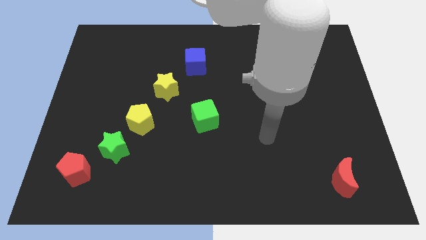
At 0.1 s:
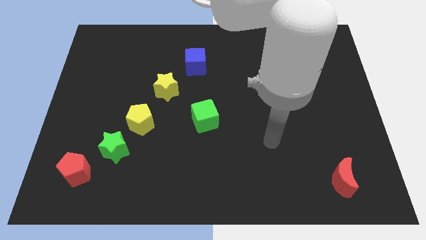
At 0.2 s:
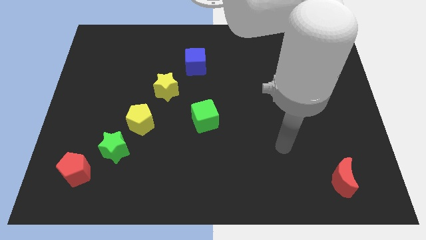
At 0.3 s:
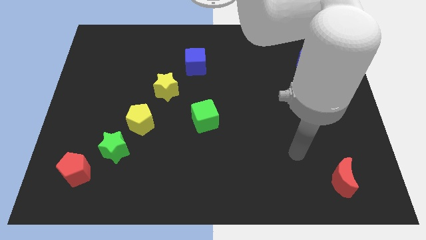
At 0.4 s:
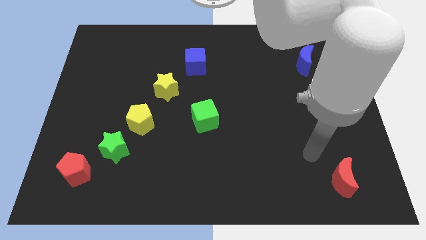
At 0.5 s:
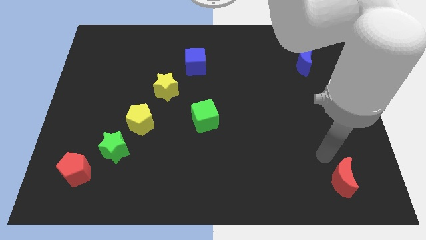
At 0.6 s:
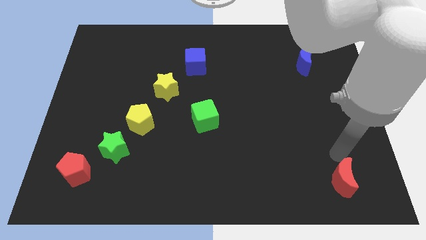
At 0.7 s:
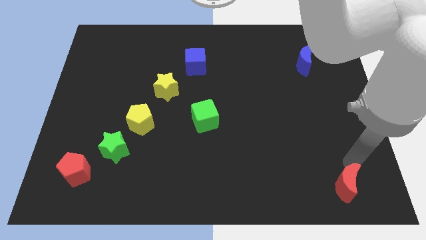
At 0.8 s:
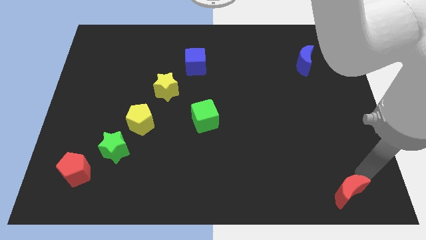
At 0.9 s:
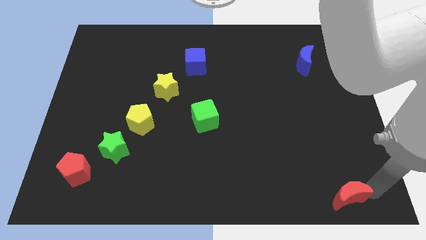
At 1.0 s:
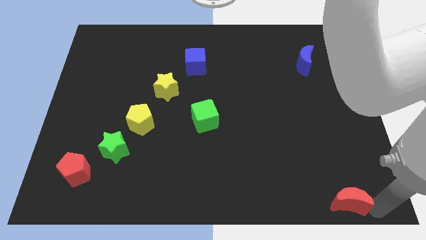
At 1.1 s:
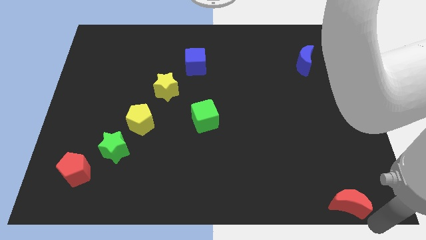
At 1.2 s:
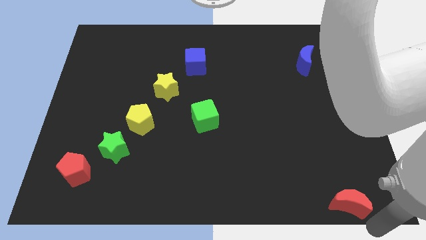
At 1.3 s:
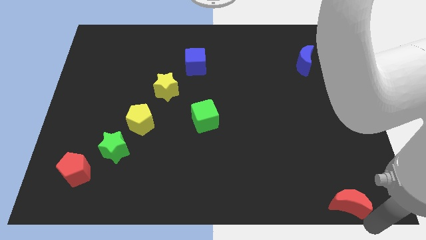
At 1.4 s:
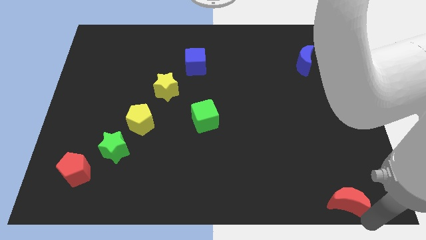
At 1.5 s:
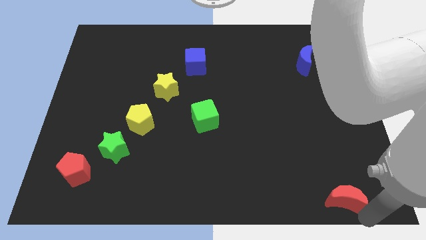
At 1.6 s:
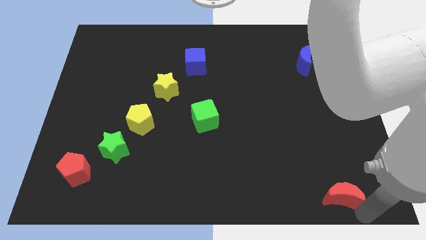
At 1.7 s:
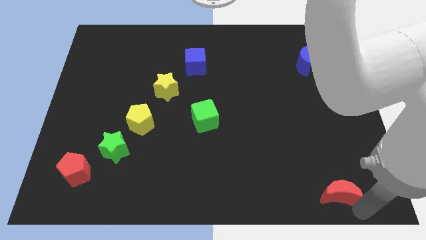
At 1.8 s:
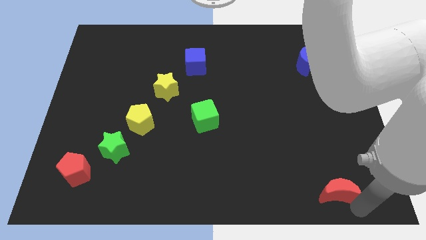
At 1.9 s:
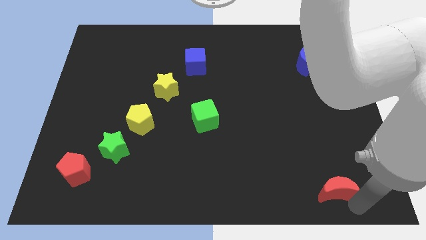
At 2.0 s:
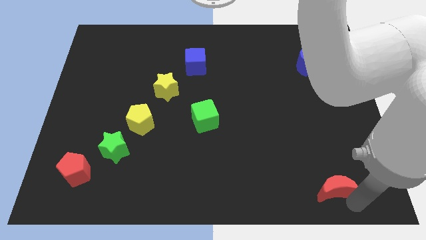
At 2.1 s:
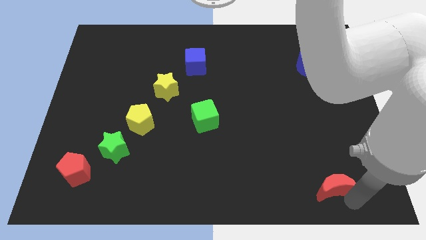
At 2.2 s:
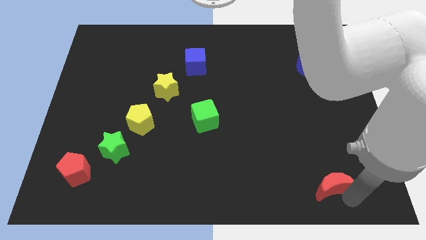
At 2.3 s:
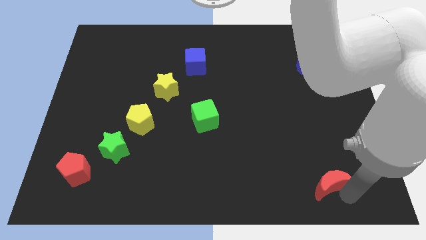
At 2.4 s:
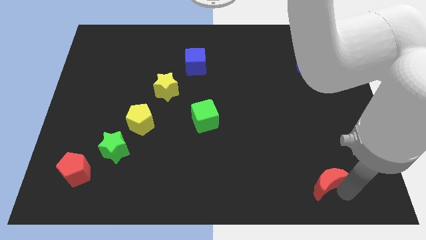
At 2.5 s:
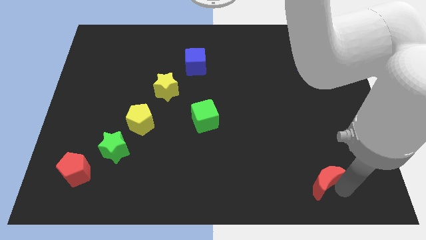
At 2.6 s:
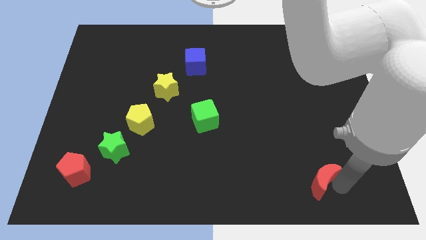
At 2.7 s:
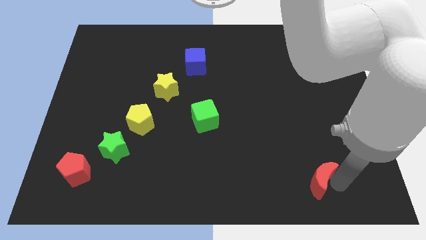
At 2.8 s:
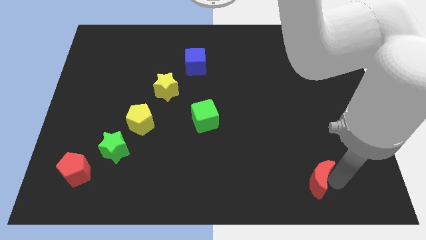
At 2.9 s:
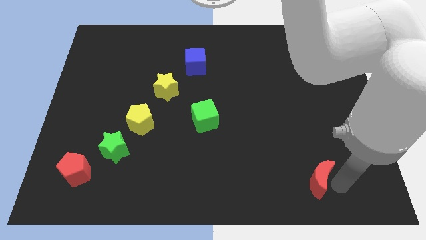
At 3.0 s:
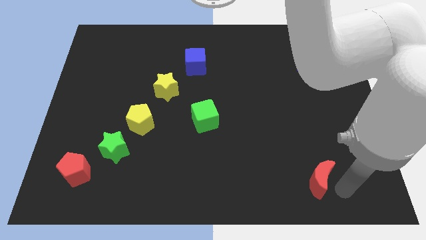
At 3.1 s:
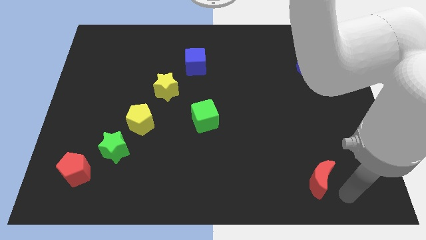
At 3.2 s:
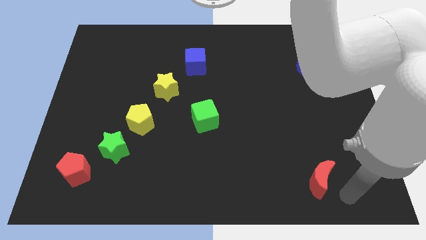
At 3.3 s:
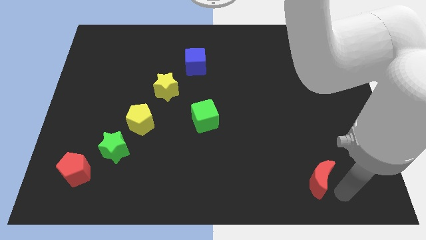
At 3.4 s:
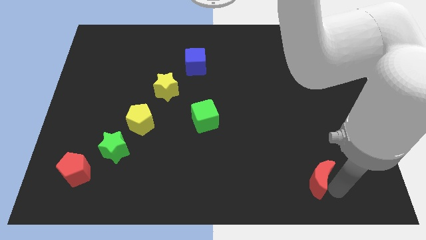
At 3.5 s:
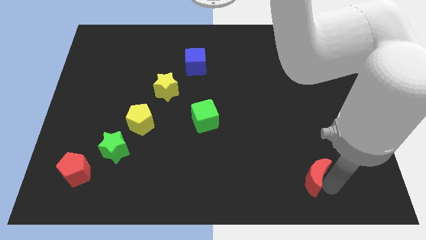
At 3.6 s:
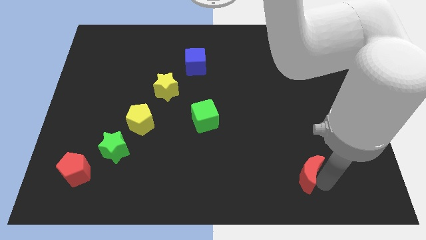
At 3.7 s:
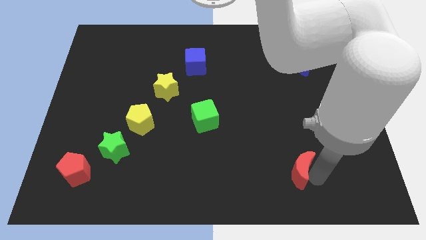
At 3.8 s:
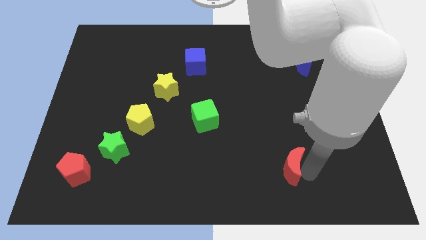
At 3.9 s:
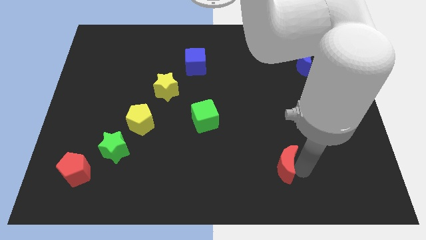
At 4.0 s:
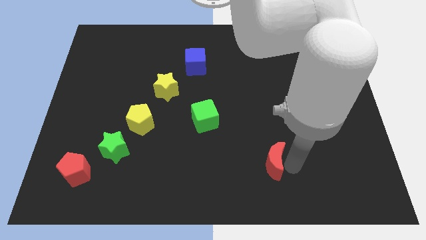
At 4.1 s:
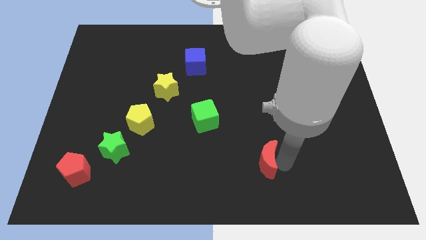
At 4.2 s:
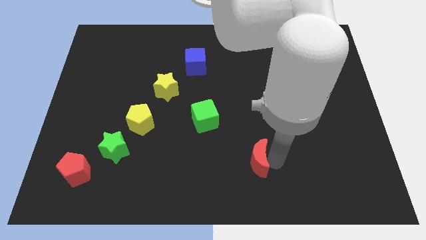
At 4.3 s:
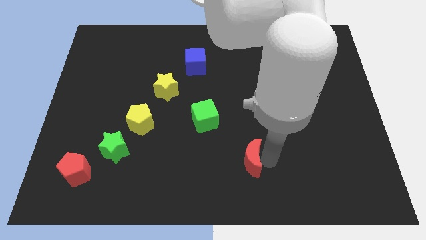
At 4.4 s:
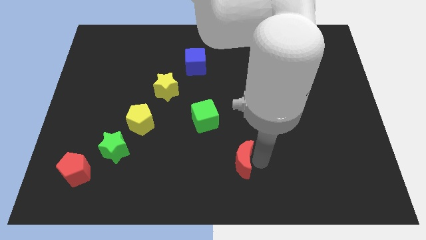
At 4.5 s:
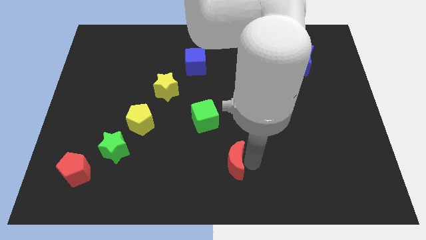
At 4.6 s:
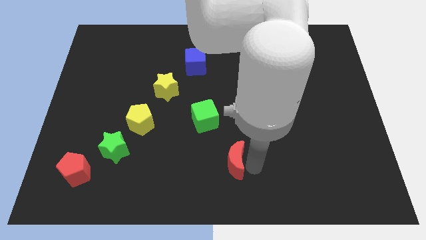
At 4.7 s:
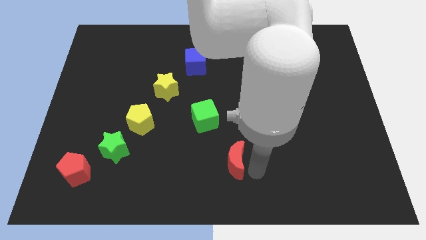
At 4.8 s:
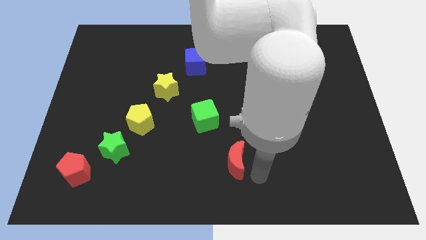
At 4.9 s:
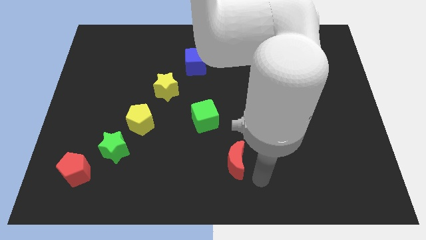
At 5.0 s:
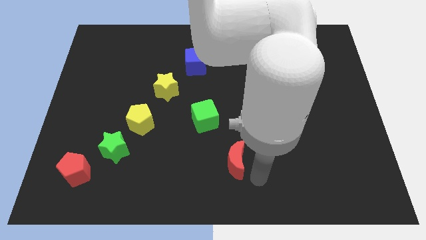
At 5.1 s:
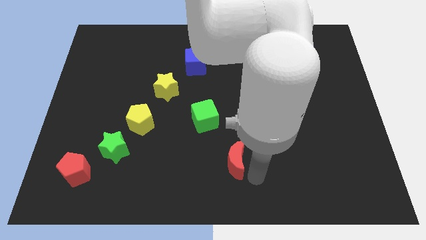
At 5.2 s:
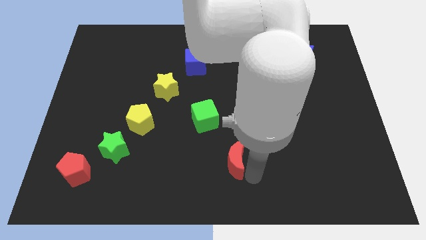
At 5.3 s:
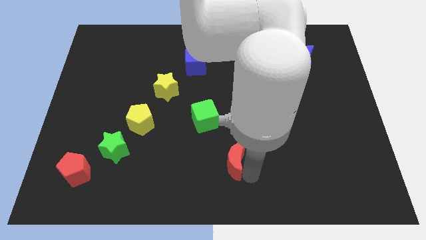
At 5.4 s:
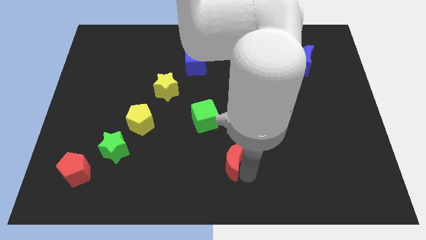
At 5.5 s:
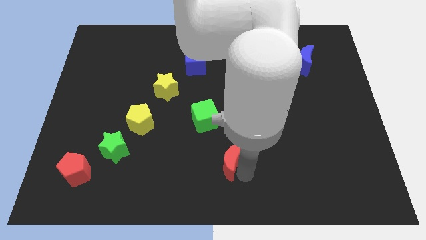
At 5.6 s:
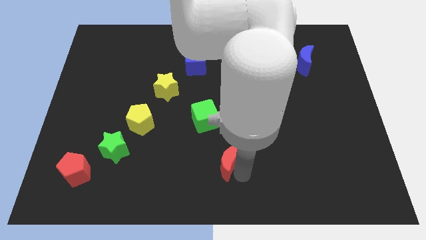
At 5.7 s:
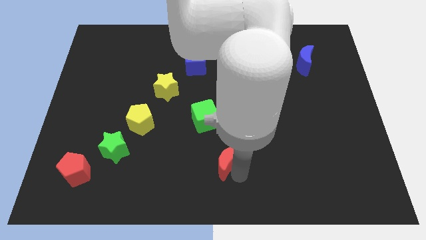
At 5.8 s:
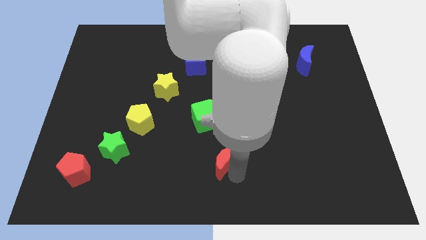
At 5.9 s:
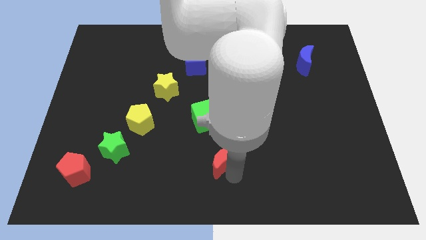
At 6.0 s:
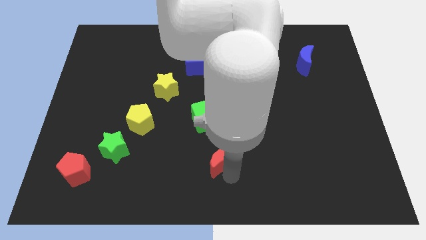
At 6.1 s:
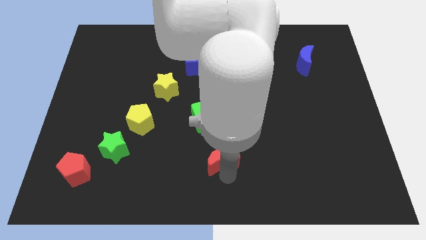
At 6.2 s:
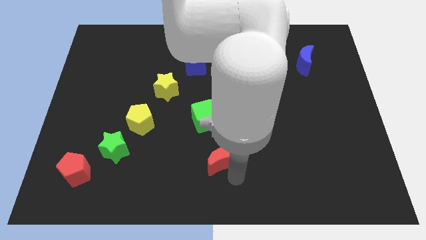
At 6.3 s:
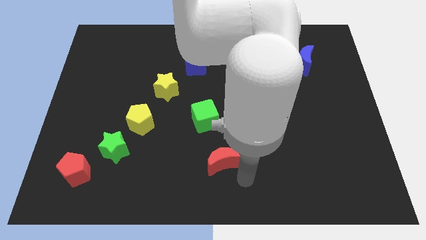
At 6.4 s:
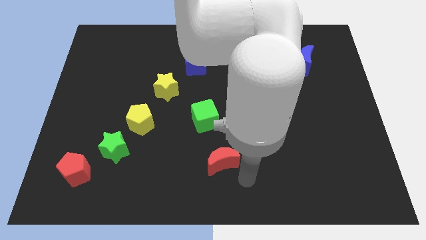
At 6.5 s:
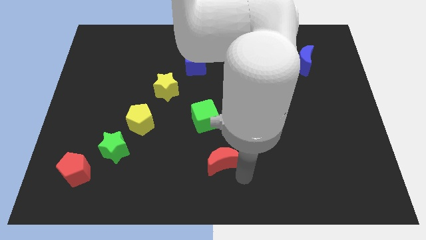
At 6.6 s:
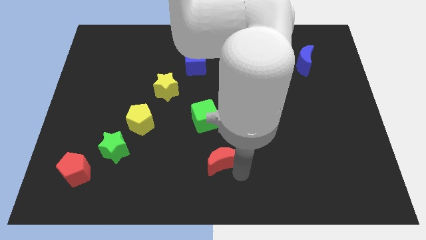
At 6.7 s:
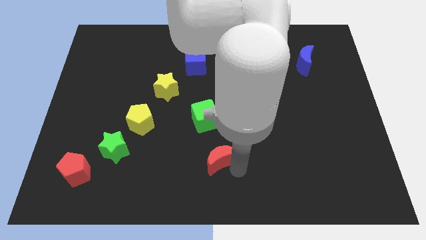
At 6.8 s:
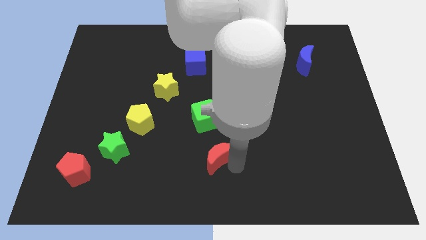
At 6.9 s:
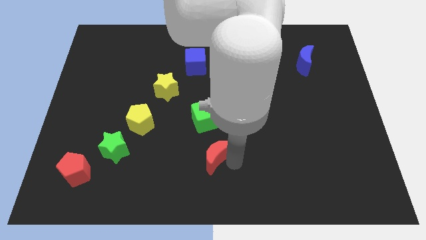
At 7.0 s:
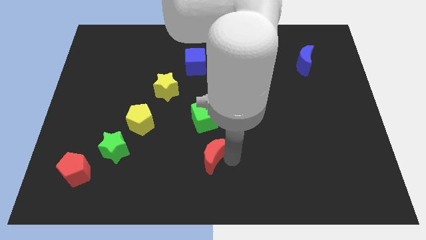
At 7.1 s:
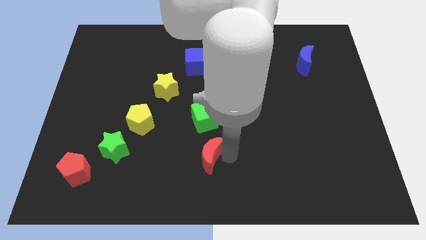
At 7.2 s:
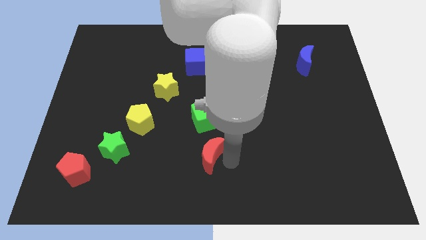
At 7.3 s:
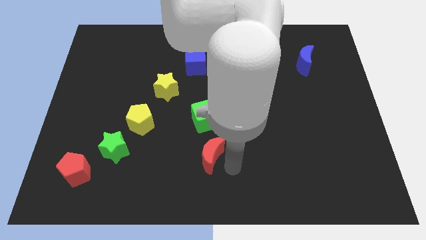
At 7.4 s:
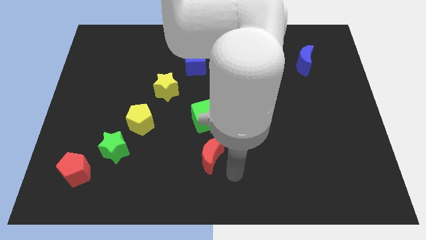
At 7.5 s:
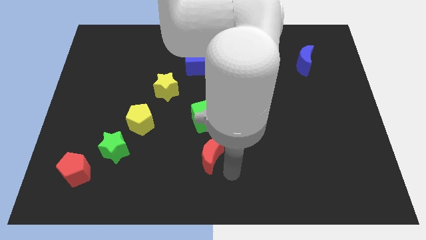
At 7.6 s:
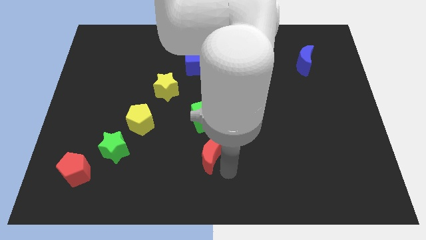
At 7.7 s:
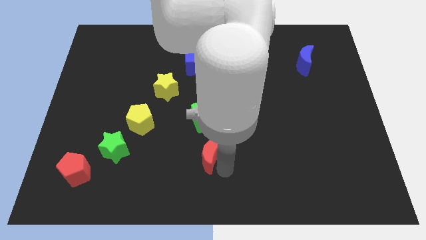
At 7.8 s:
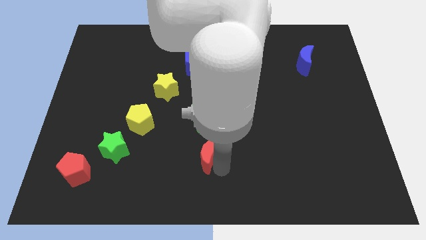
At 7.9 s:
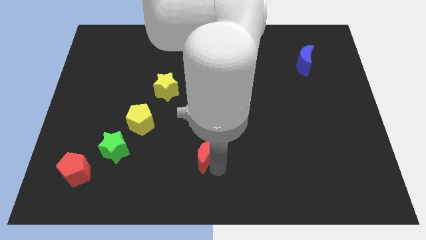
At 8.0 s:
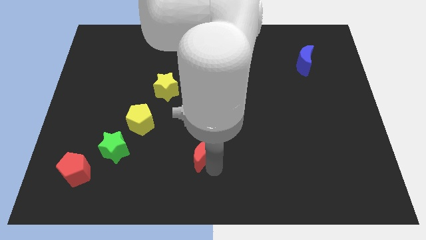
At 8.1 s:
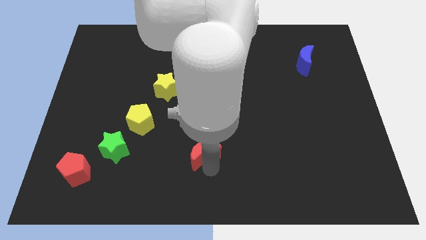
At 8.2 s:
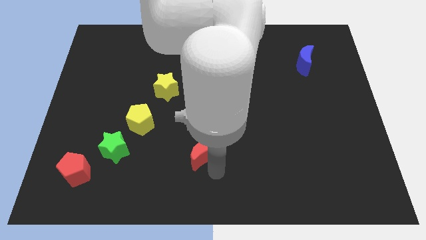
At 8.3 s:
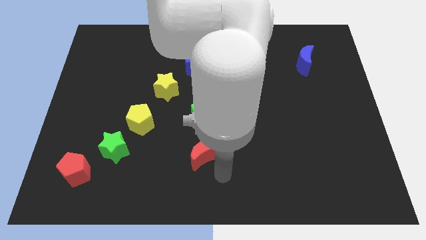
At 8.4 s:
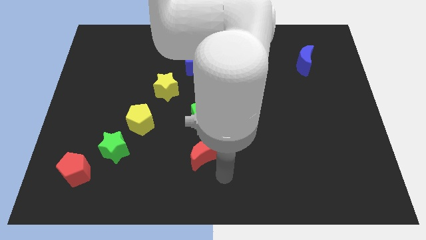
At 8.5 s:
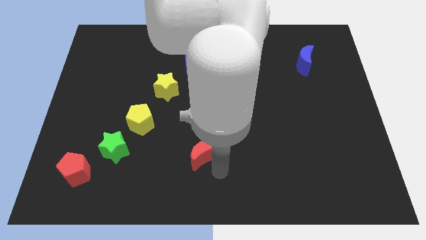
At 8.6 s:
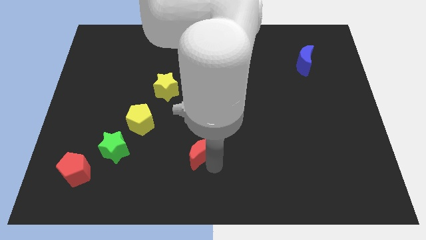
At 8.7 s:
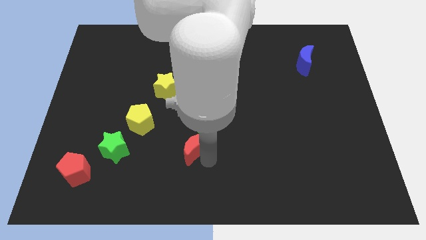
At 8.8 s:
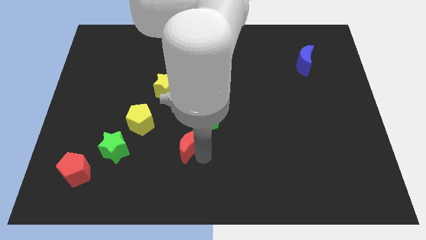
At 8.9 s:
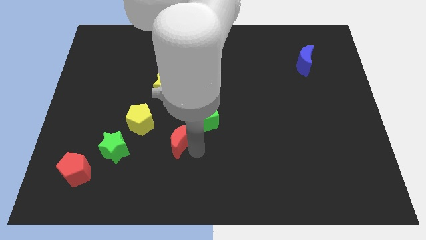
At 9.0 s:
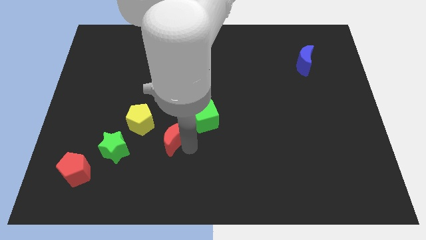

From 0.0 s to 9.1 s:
put the red moon to the bottom of the yellow star
